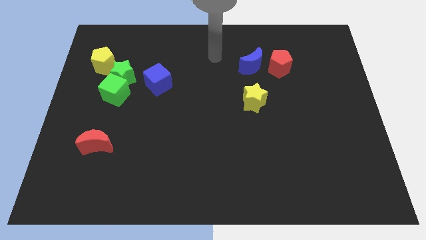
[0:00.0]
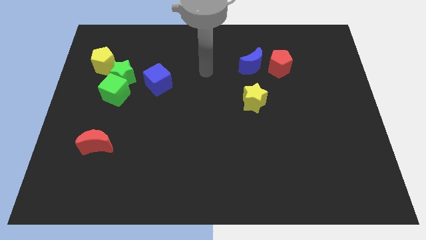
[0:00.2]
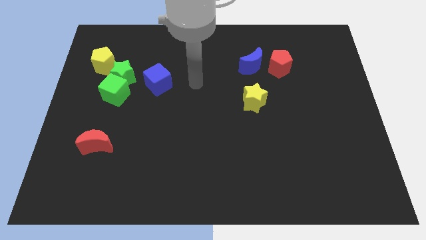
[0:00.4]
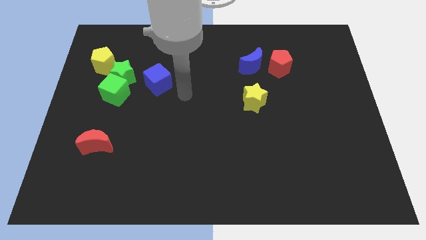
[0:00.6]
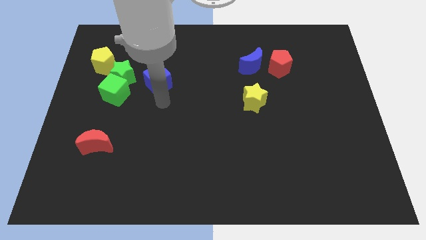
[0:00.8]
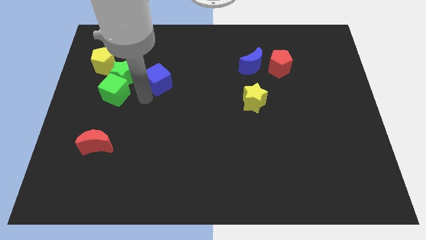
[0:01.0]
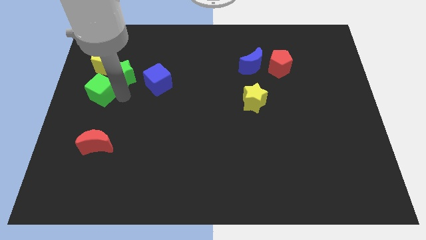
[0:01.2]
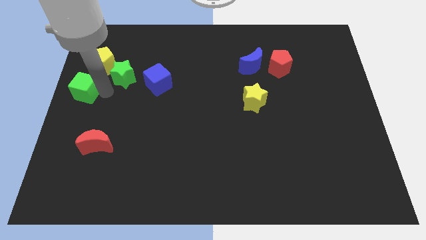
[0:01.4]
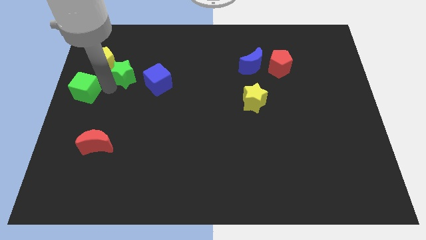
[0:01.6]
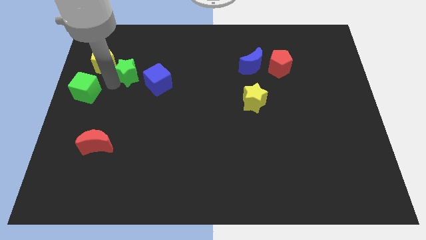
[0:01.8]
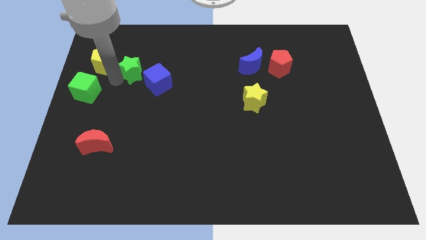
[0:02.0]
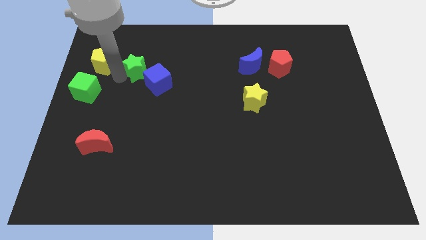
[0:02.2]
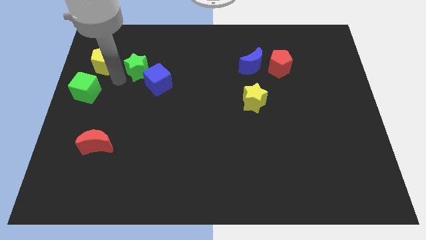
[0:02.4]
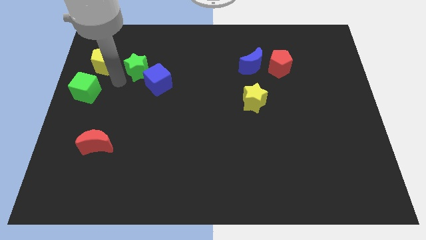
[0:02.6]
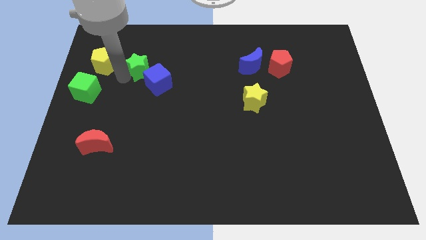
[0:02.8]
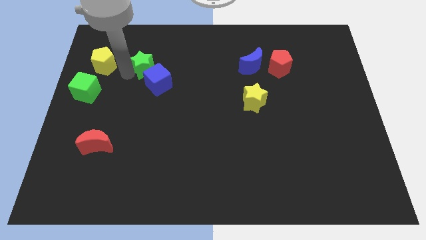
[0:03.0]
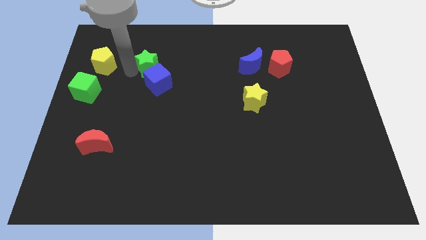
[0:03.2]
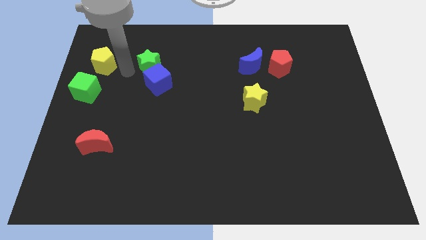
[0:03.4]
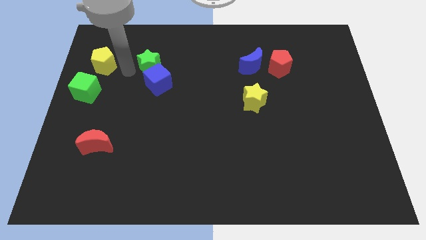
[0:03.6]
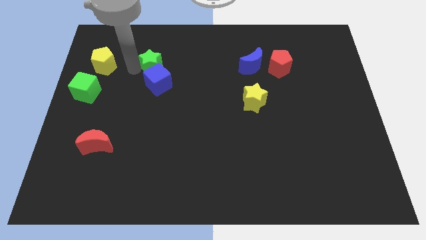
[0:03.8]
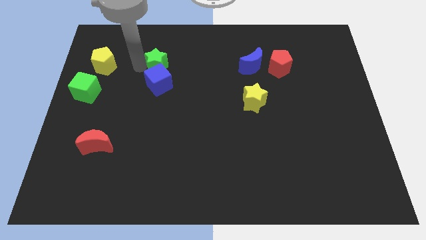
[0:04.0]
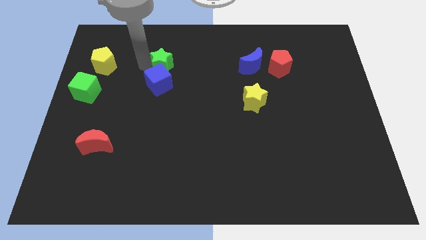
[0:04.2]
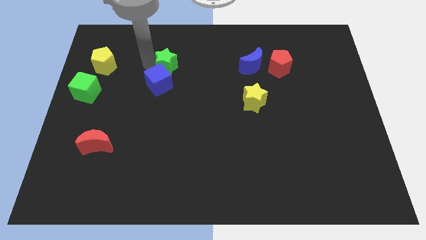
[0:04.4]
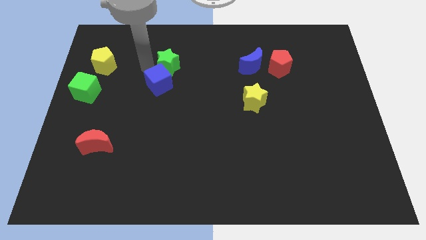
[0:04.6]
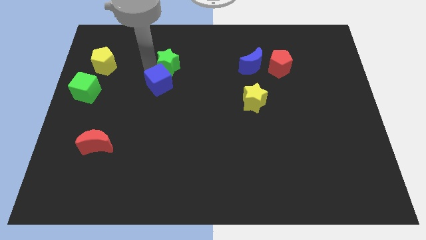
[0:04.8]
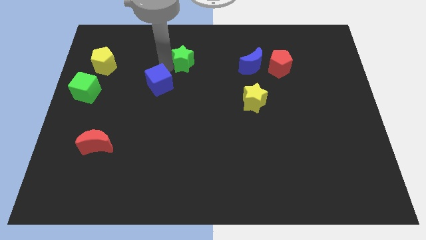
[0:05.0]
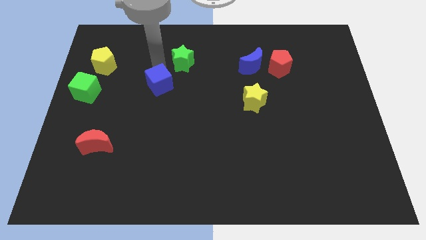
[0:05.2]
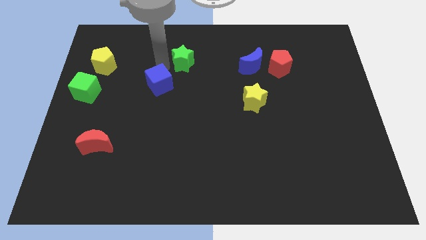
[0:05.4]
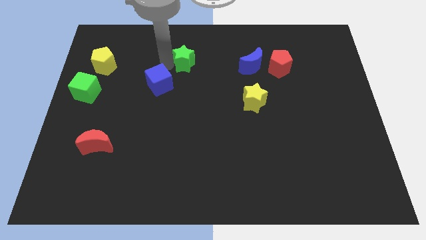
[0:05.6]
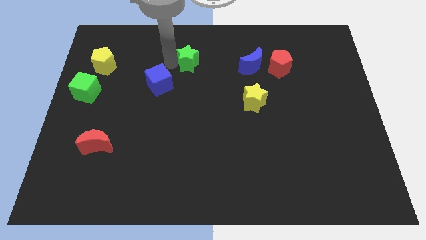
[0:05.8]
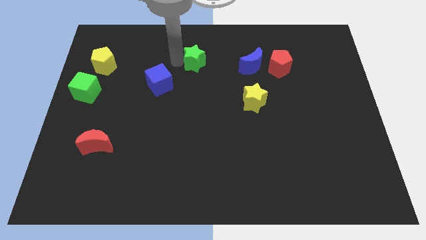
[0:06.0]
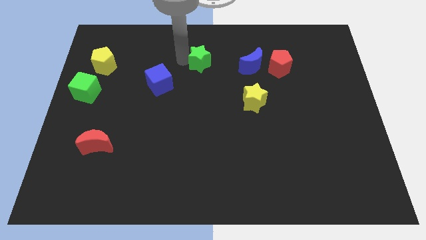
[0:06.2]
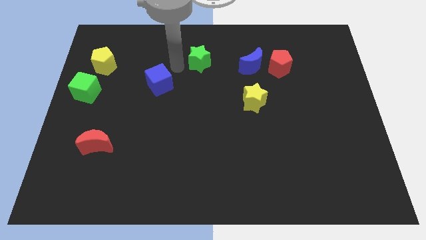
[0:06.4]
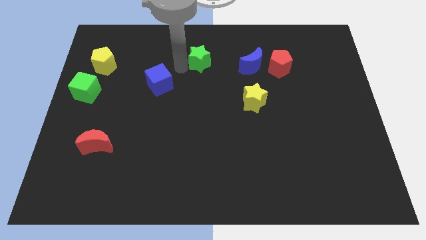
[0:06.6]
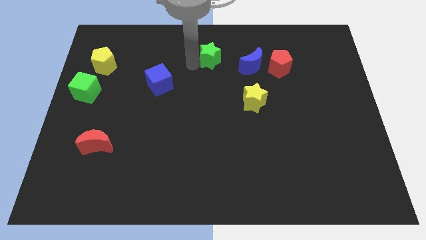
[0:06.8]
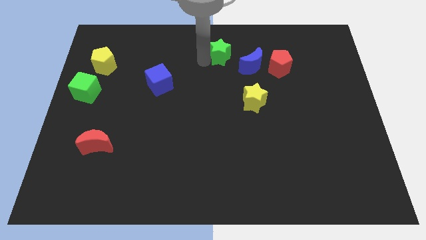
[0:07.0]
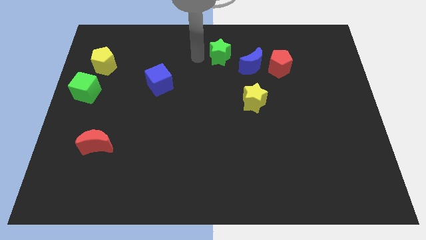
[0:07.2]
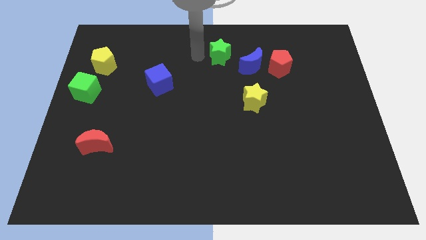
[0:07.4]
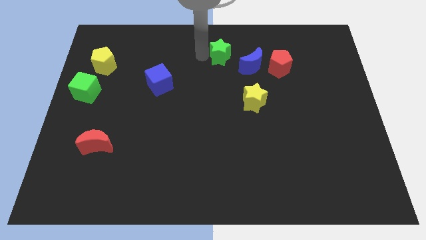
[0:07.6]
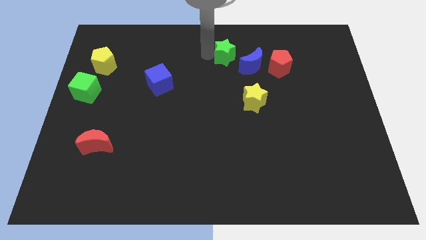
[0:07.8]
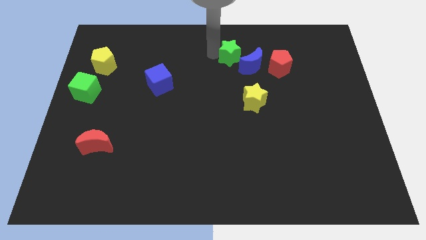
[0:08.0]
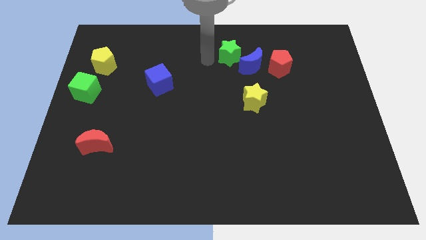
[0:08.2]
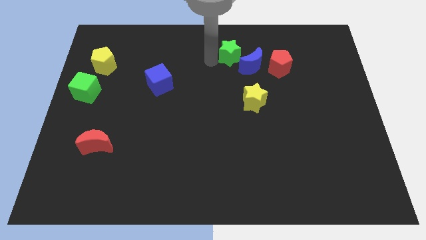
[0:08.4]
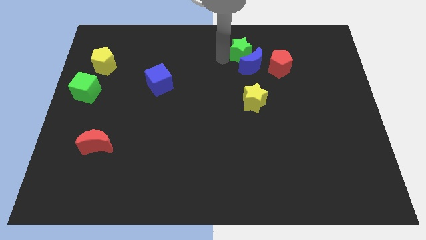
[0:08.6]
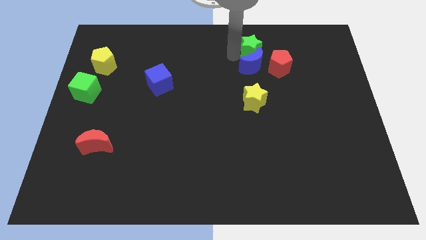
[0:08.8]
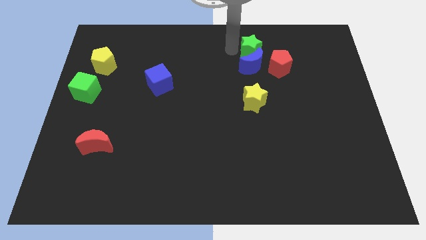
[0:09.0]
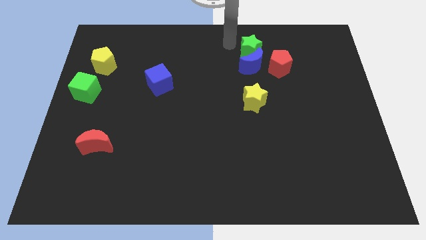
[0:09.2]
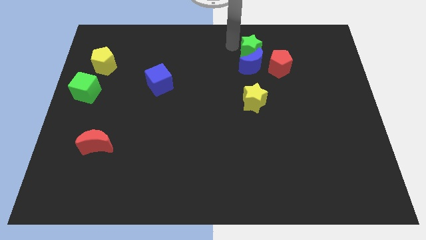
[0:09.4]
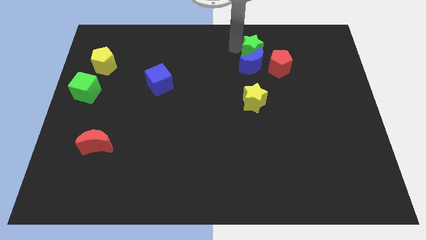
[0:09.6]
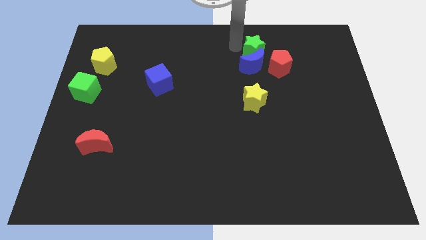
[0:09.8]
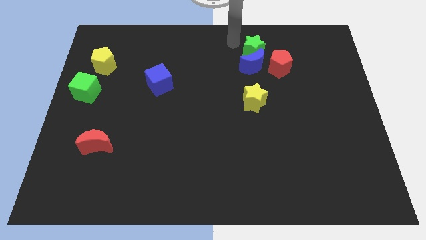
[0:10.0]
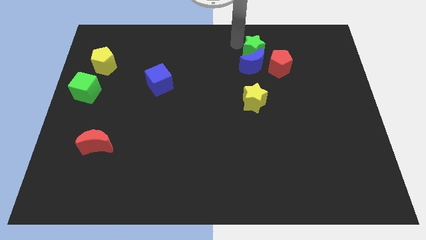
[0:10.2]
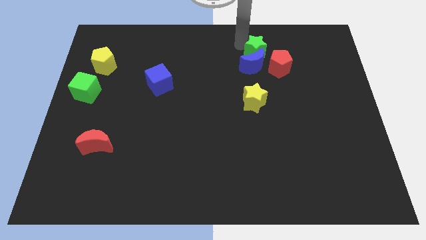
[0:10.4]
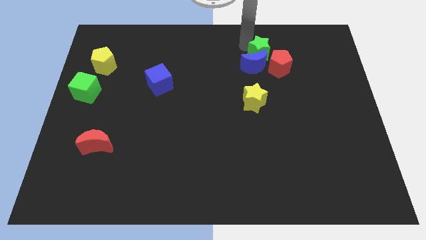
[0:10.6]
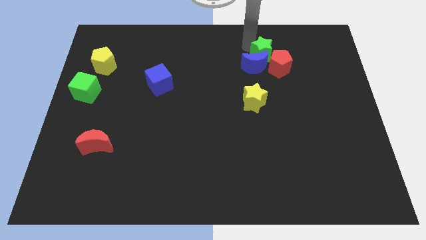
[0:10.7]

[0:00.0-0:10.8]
push the green star next to the red pentagon
